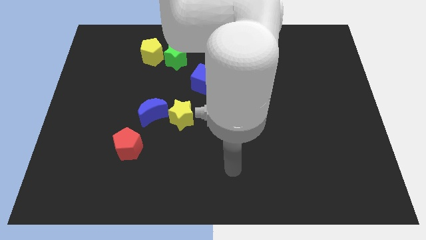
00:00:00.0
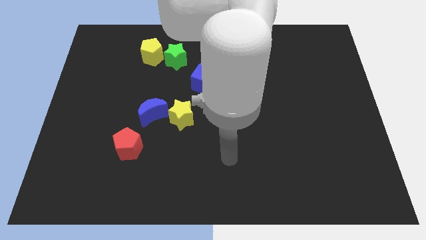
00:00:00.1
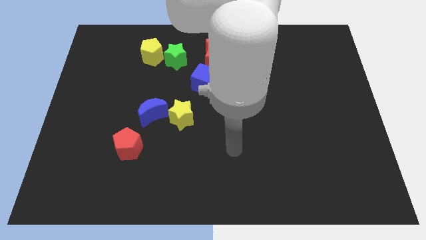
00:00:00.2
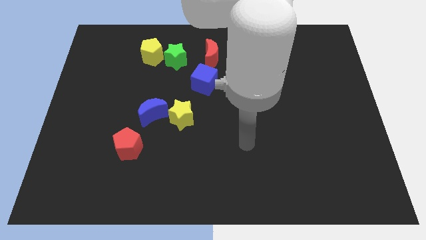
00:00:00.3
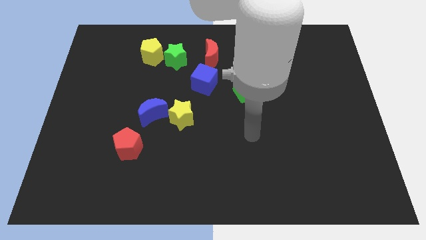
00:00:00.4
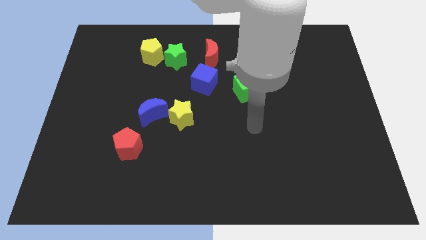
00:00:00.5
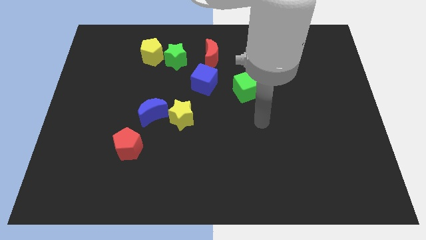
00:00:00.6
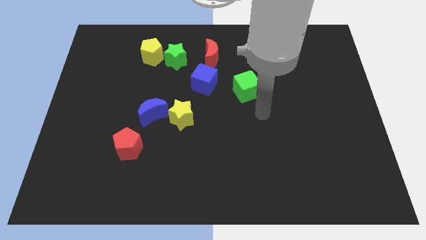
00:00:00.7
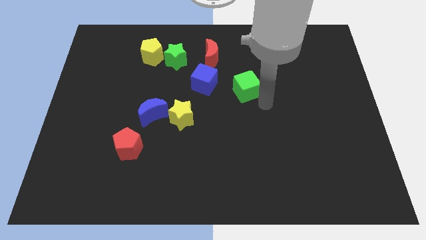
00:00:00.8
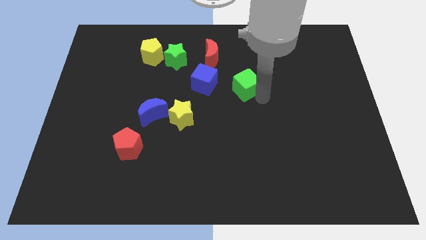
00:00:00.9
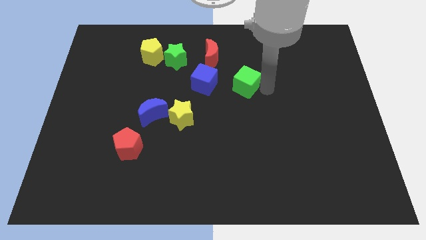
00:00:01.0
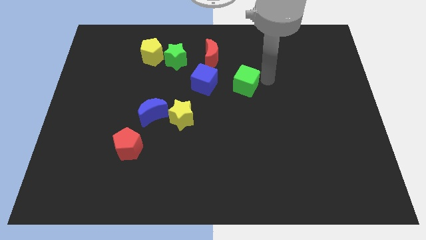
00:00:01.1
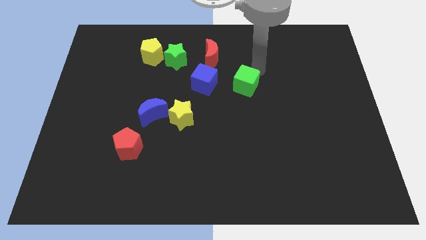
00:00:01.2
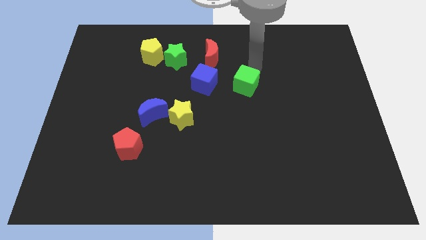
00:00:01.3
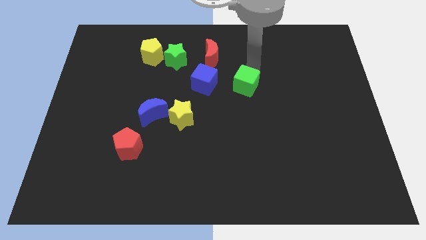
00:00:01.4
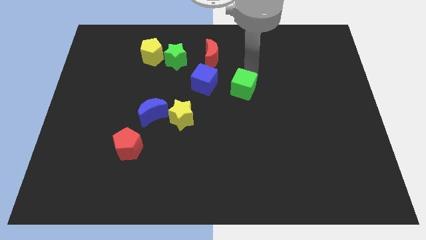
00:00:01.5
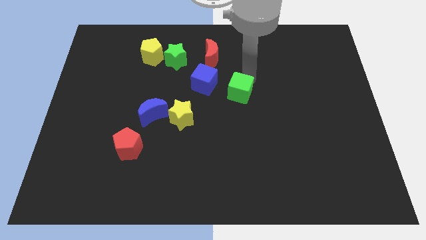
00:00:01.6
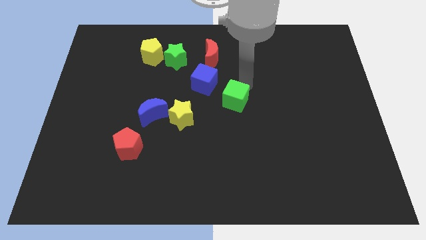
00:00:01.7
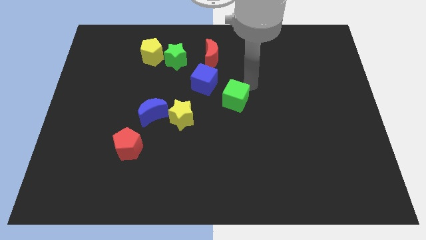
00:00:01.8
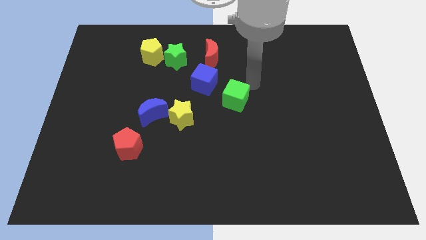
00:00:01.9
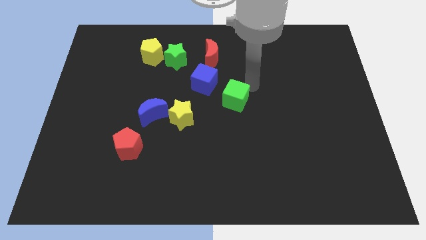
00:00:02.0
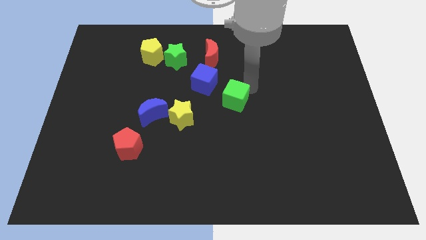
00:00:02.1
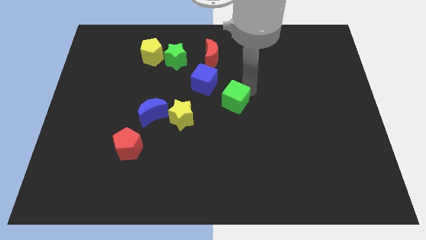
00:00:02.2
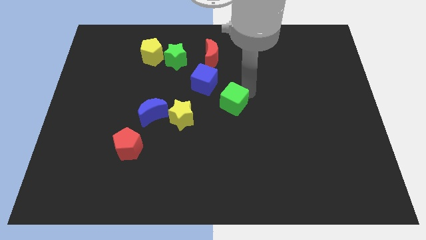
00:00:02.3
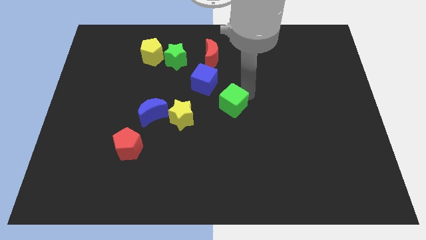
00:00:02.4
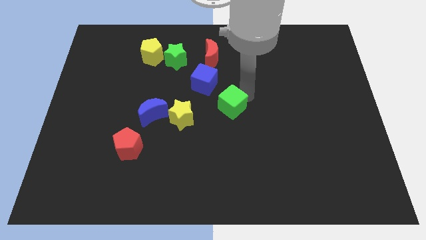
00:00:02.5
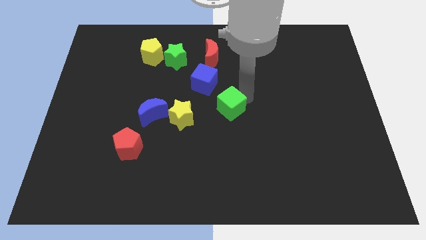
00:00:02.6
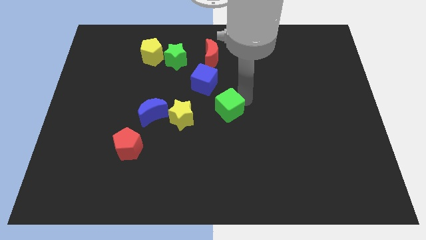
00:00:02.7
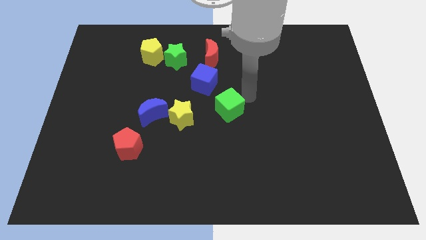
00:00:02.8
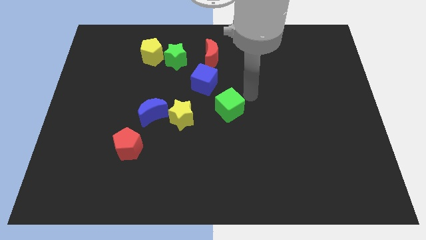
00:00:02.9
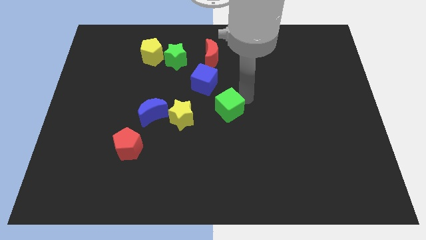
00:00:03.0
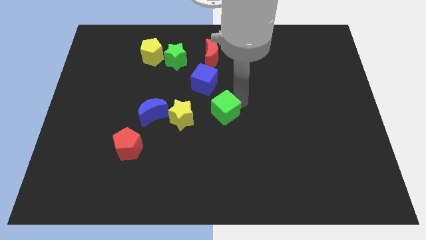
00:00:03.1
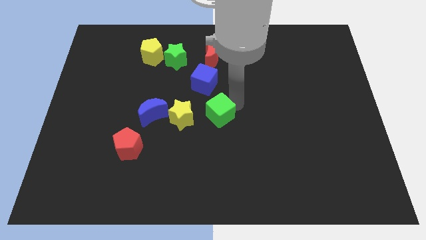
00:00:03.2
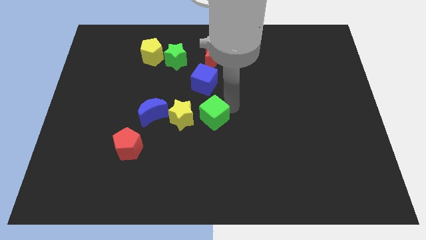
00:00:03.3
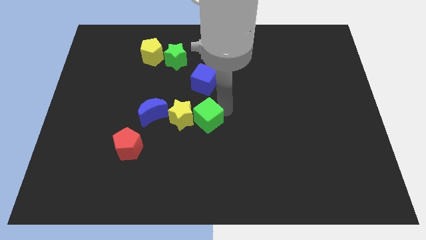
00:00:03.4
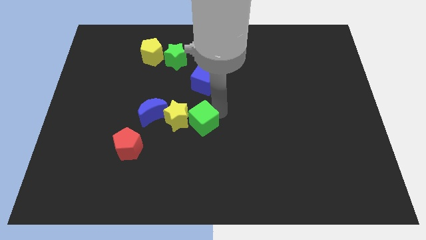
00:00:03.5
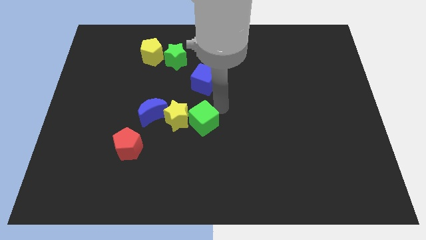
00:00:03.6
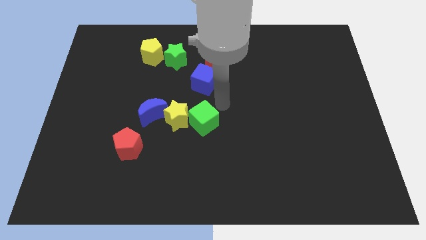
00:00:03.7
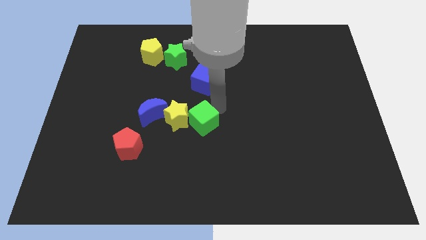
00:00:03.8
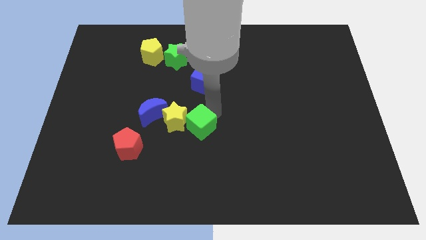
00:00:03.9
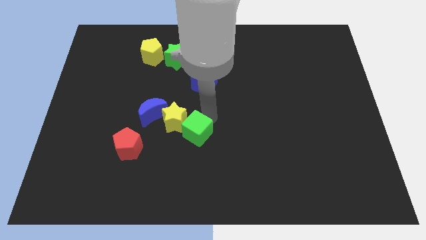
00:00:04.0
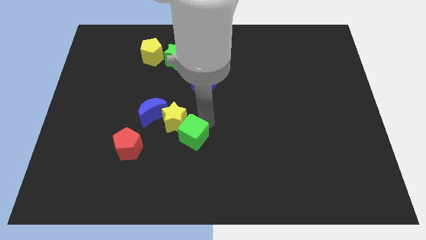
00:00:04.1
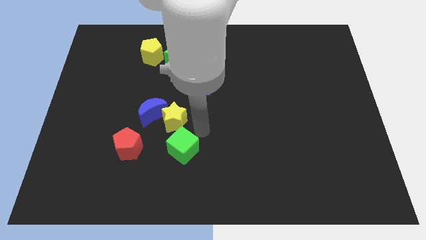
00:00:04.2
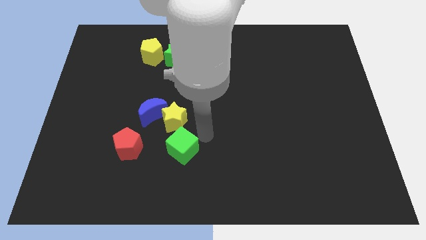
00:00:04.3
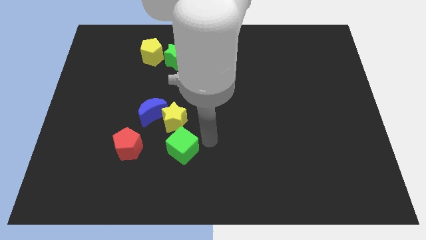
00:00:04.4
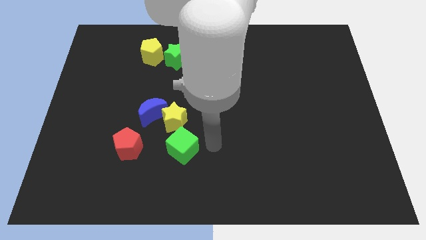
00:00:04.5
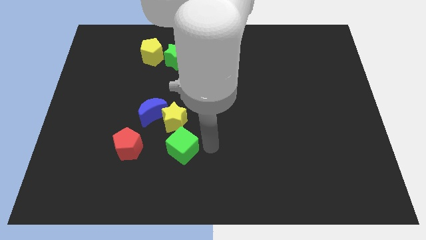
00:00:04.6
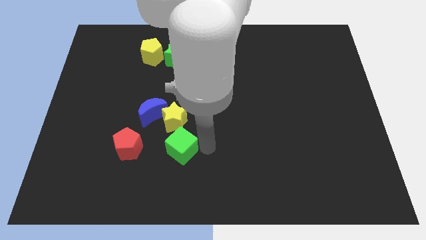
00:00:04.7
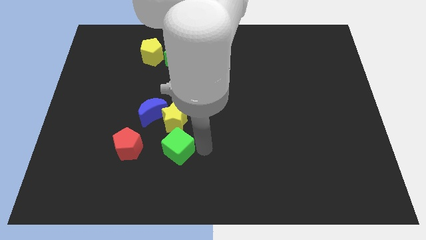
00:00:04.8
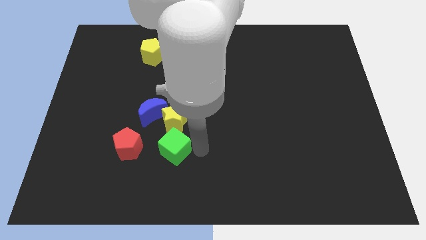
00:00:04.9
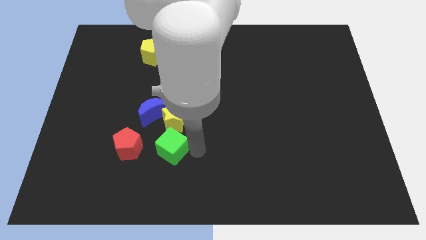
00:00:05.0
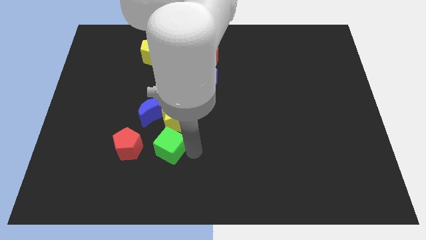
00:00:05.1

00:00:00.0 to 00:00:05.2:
move the green cube below the blue moon

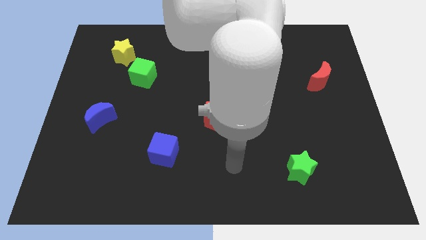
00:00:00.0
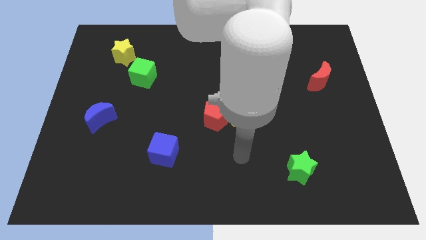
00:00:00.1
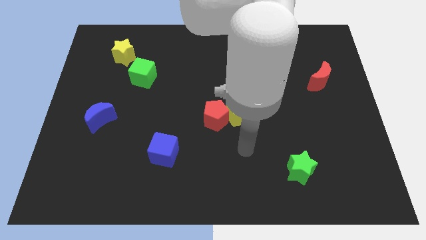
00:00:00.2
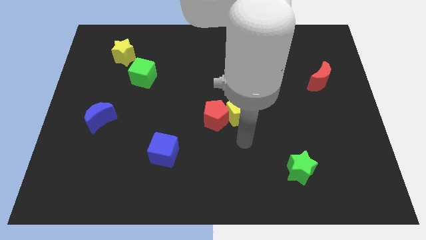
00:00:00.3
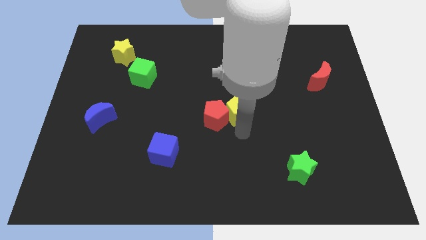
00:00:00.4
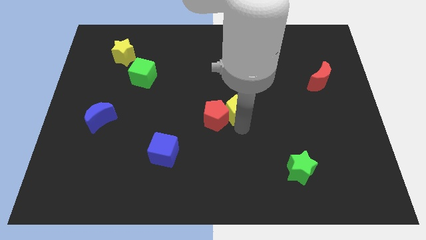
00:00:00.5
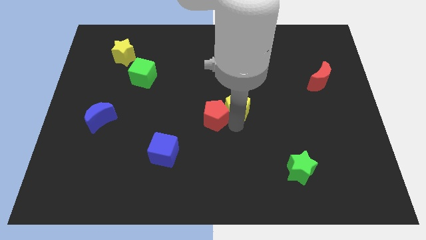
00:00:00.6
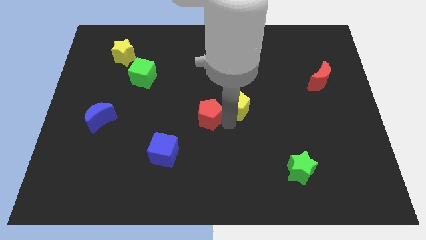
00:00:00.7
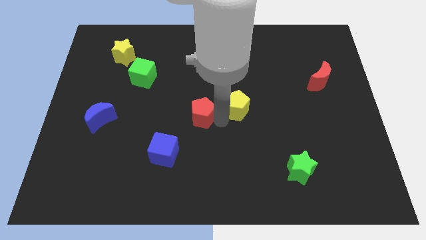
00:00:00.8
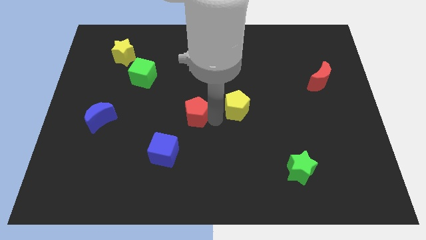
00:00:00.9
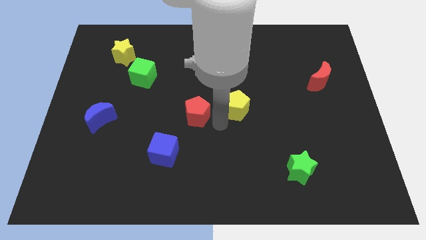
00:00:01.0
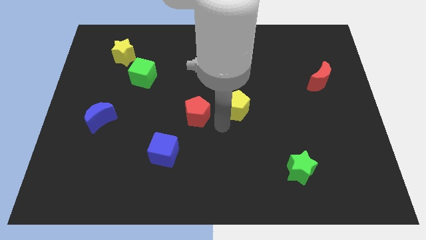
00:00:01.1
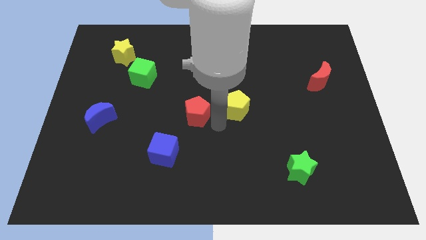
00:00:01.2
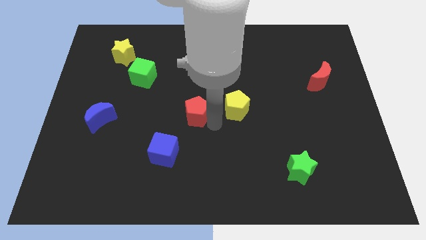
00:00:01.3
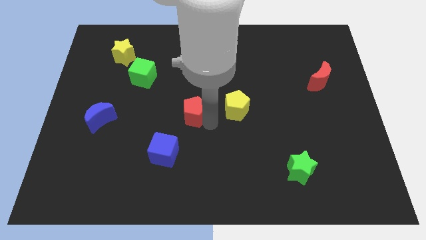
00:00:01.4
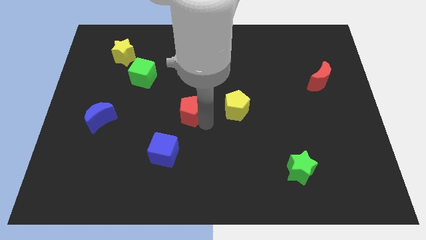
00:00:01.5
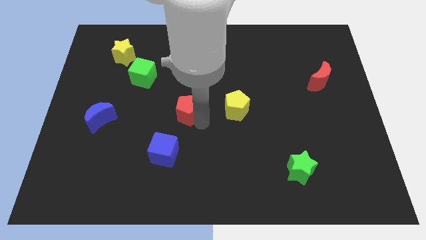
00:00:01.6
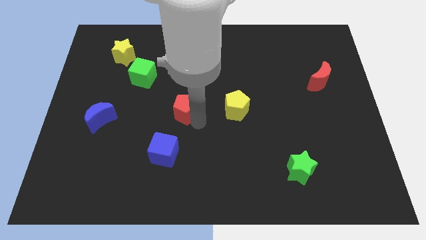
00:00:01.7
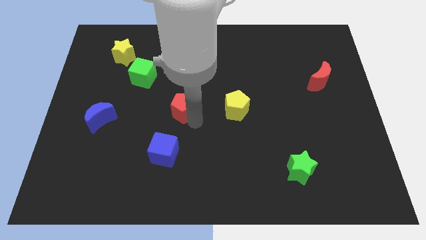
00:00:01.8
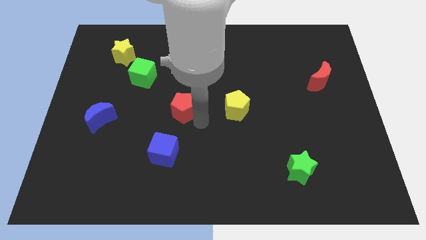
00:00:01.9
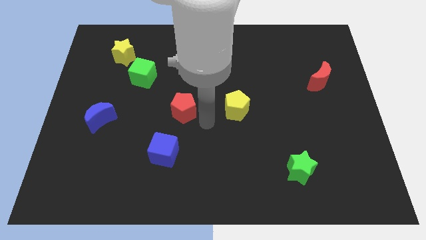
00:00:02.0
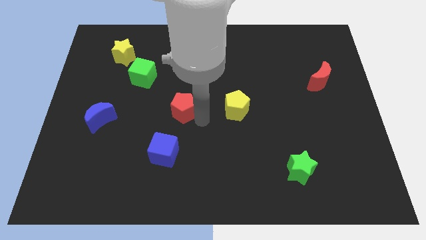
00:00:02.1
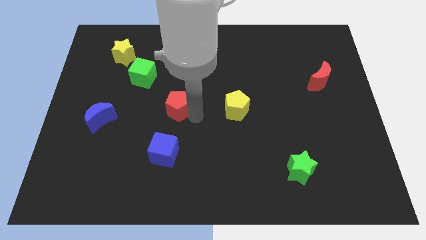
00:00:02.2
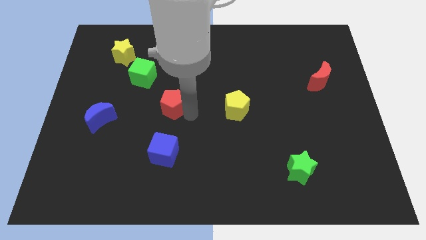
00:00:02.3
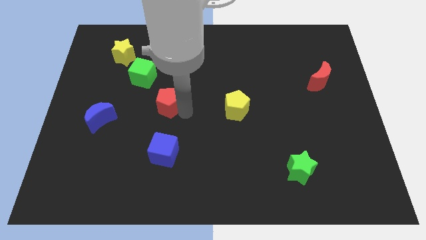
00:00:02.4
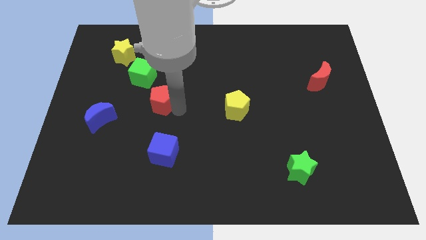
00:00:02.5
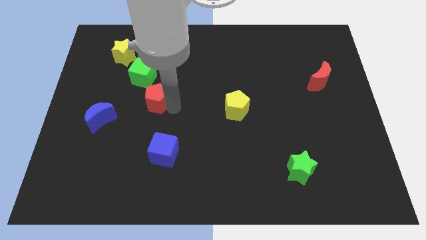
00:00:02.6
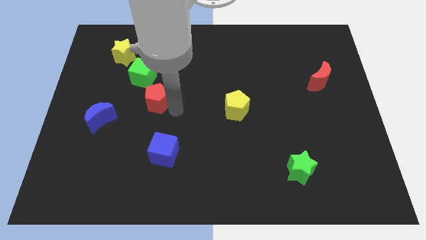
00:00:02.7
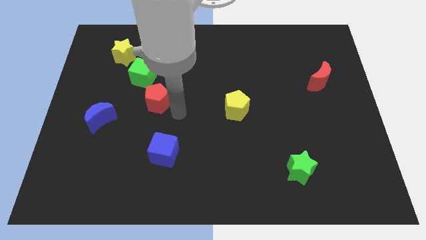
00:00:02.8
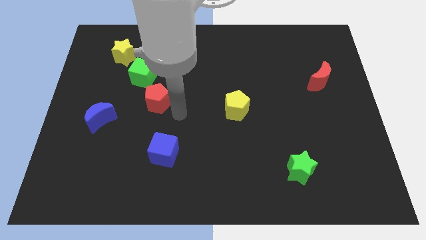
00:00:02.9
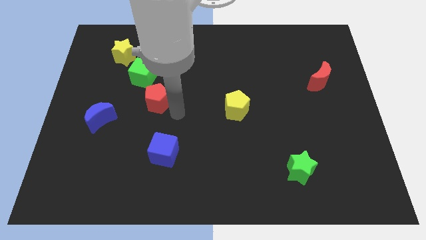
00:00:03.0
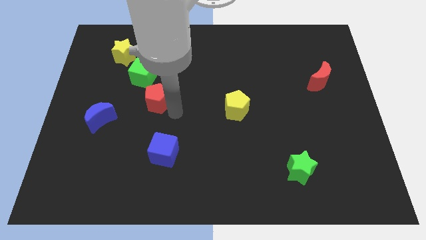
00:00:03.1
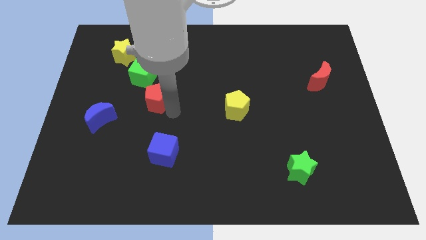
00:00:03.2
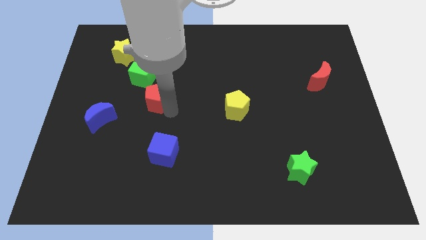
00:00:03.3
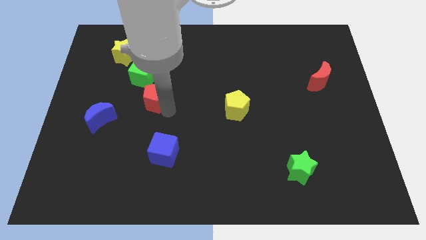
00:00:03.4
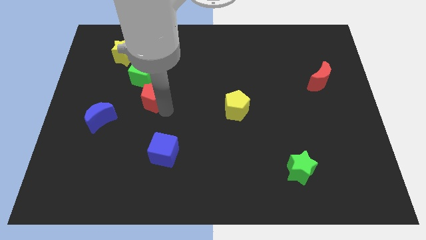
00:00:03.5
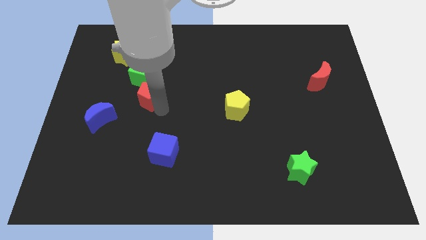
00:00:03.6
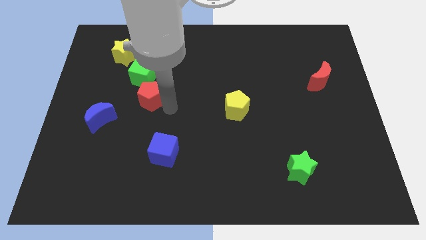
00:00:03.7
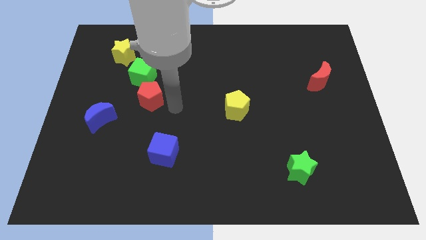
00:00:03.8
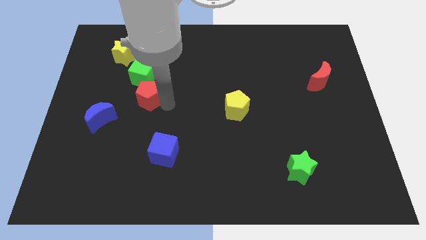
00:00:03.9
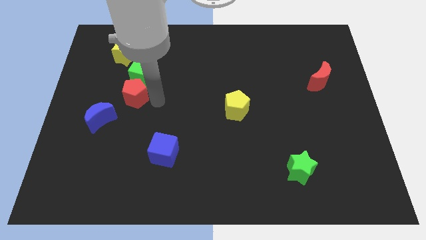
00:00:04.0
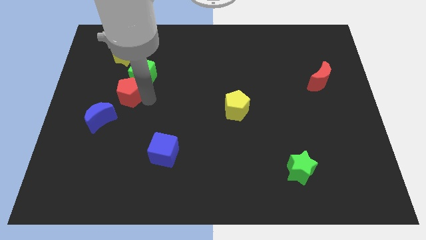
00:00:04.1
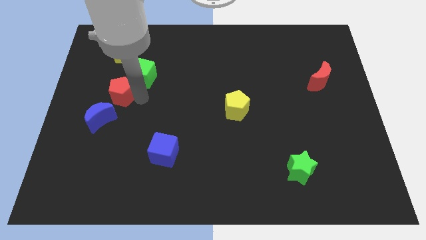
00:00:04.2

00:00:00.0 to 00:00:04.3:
put the red pentagon to the top of the blue moon
